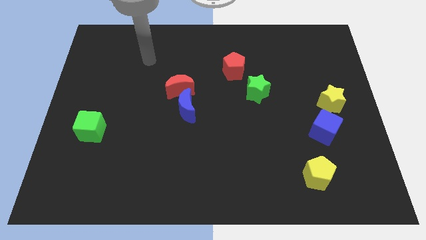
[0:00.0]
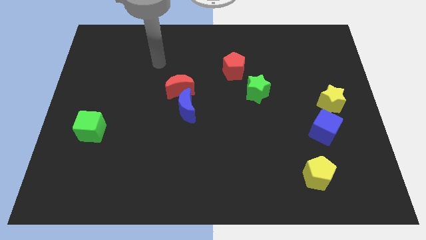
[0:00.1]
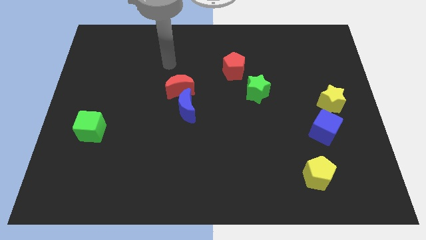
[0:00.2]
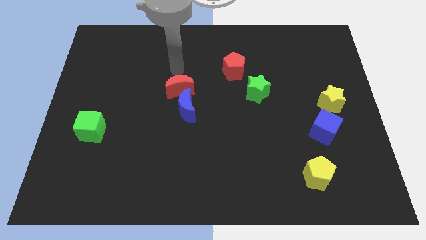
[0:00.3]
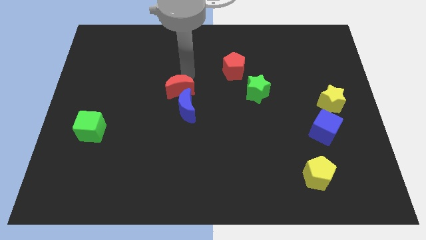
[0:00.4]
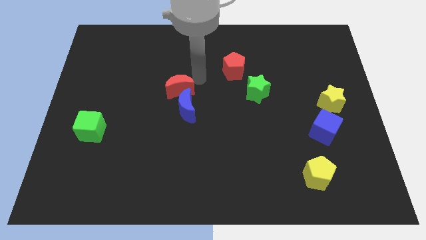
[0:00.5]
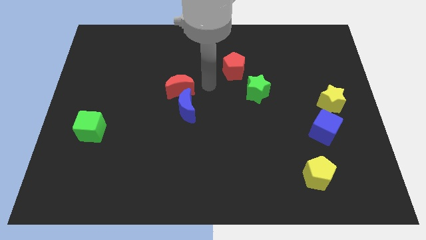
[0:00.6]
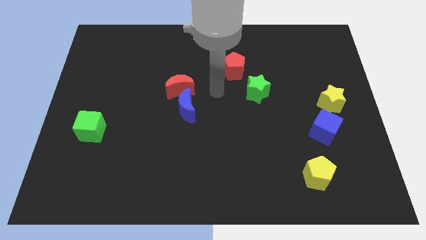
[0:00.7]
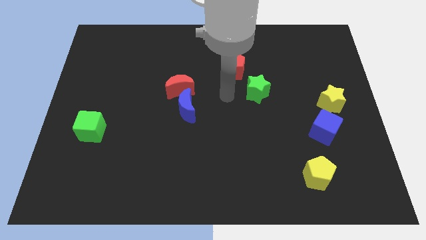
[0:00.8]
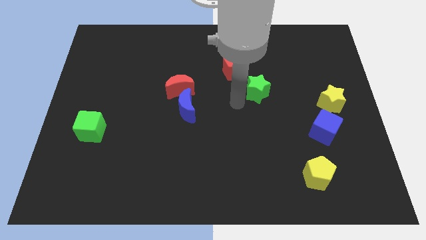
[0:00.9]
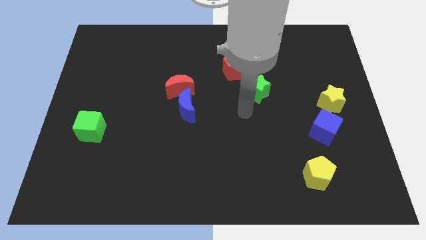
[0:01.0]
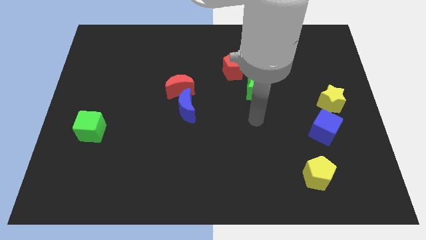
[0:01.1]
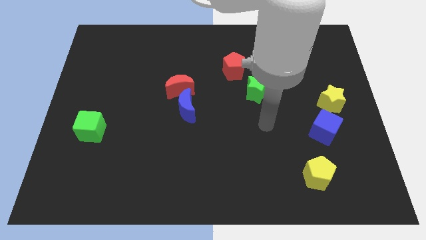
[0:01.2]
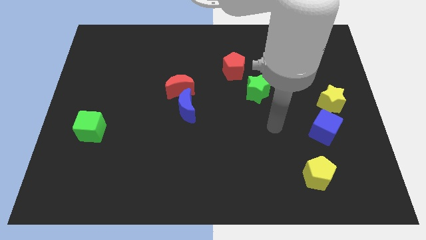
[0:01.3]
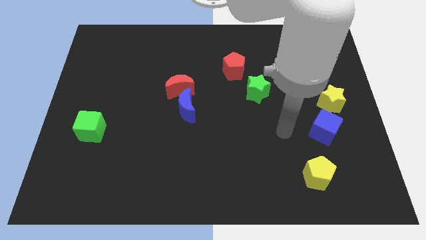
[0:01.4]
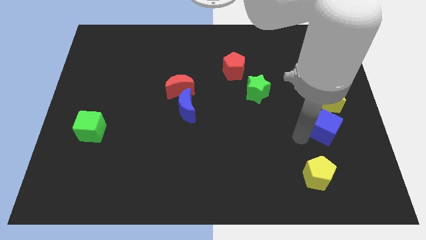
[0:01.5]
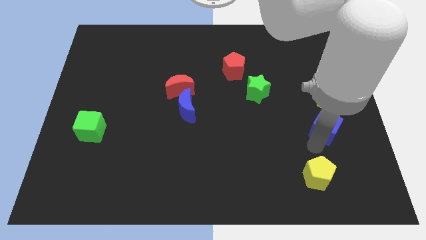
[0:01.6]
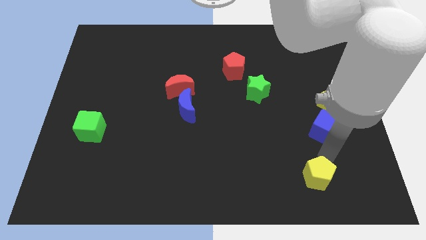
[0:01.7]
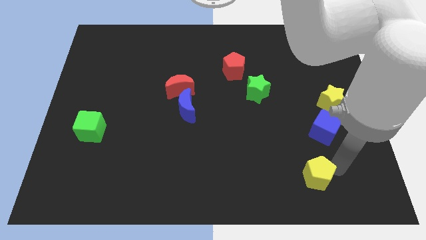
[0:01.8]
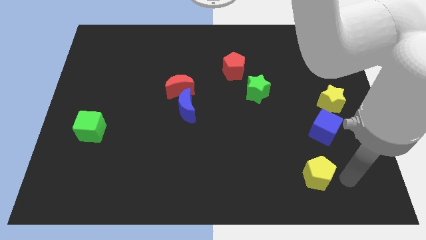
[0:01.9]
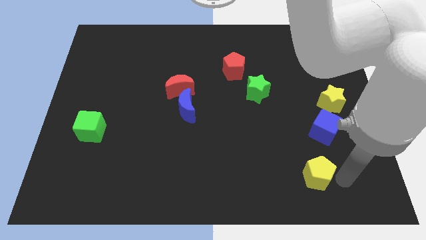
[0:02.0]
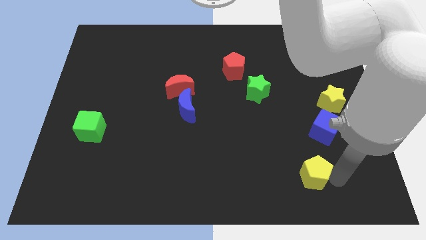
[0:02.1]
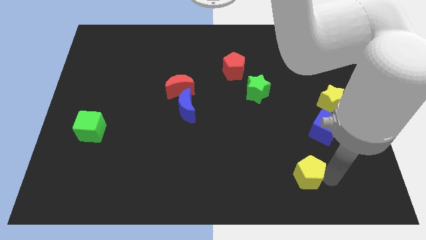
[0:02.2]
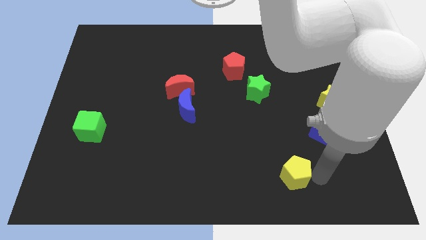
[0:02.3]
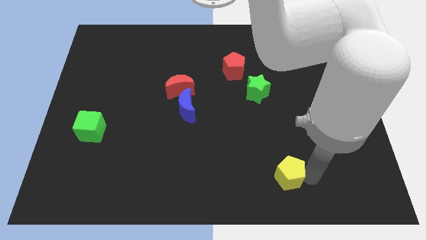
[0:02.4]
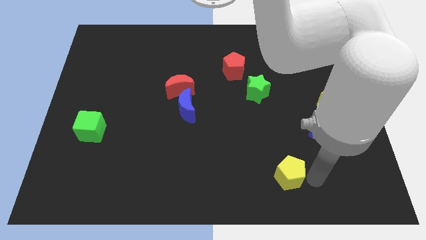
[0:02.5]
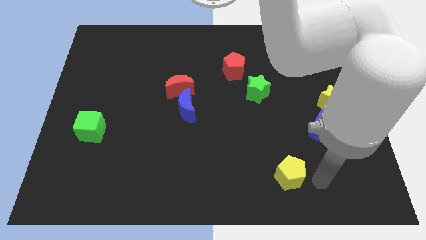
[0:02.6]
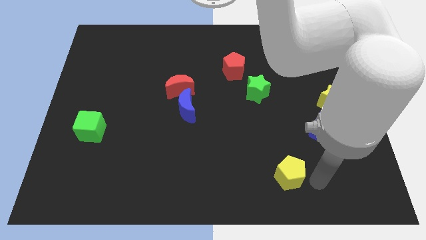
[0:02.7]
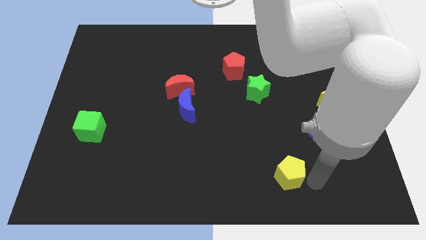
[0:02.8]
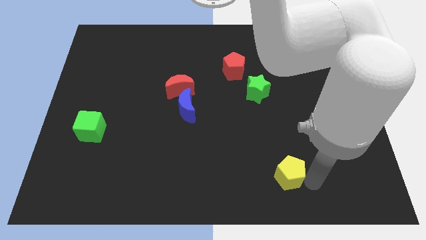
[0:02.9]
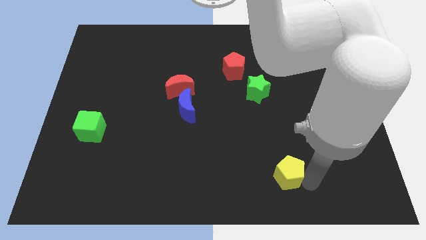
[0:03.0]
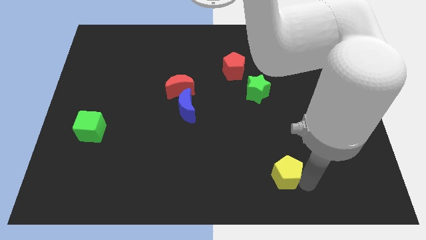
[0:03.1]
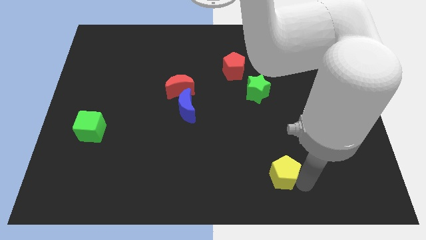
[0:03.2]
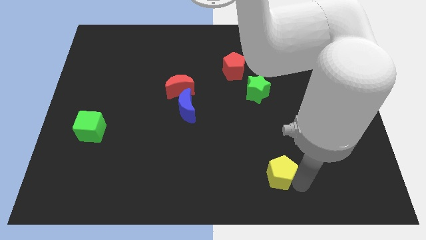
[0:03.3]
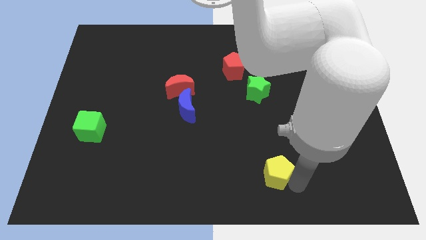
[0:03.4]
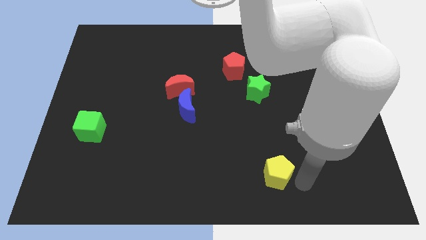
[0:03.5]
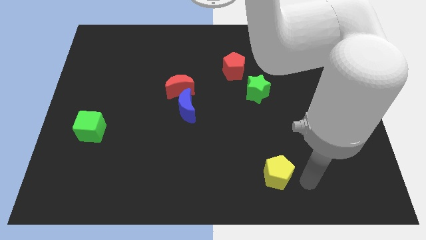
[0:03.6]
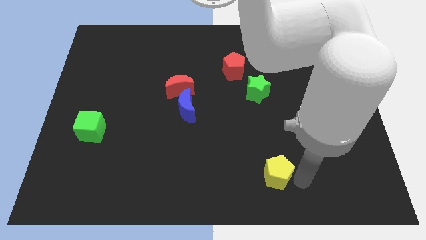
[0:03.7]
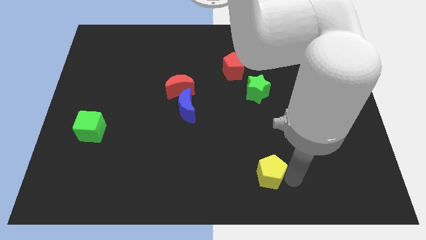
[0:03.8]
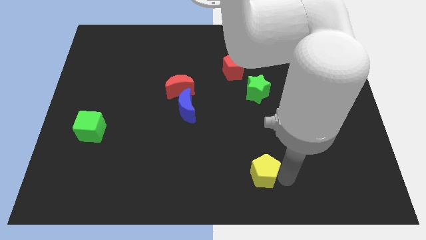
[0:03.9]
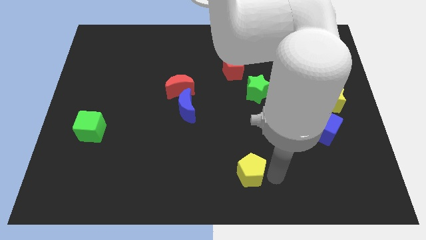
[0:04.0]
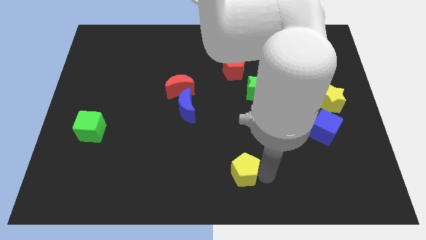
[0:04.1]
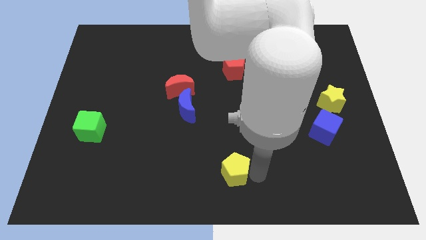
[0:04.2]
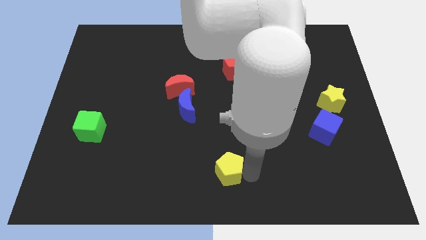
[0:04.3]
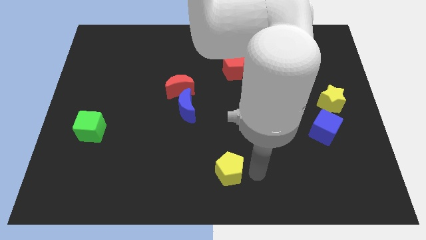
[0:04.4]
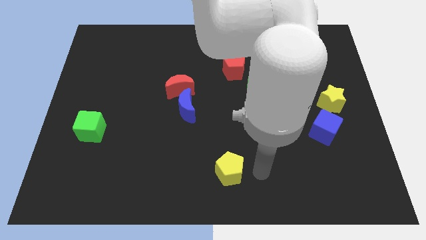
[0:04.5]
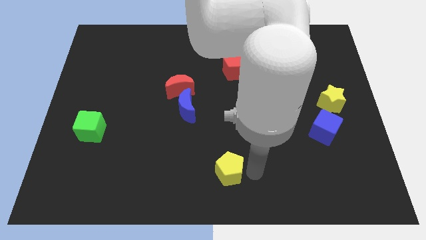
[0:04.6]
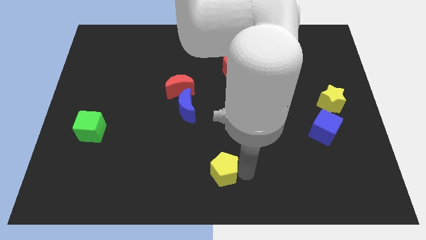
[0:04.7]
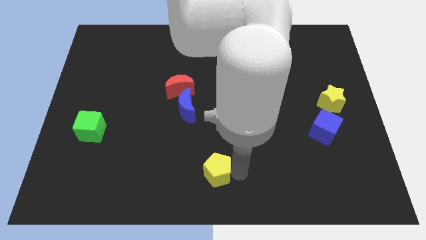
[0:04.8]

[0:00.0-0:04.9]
push the yellow pentagon left

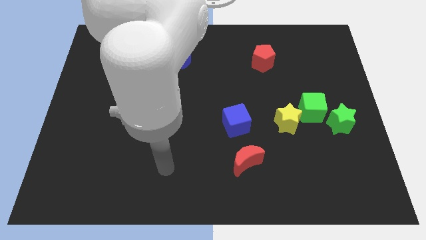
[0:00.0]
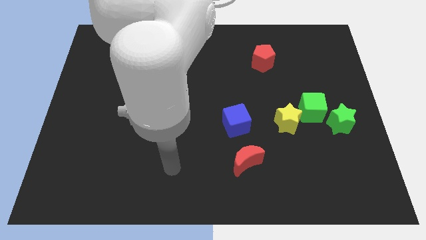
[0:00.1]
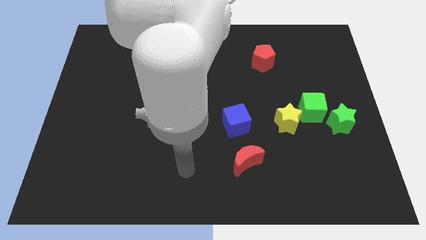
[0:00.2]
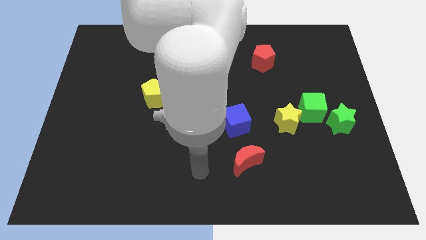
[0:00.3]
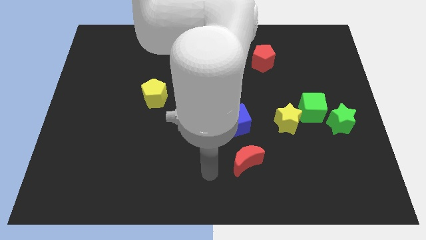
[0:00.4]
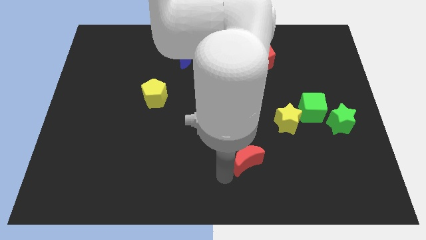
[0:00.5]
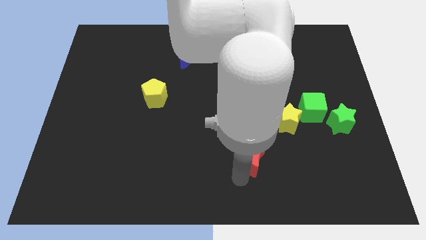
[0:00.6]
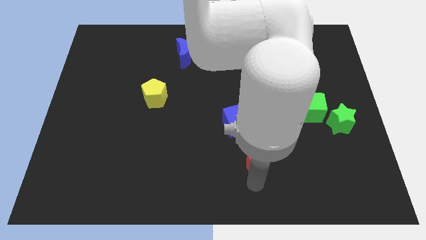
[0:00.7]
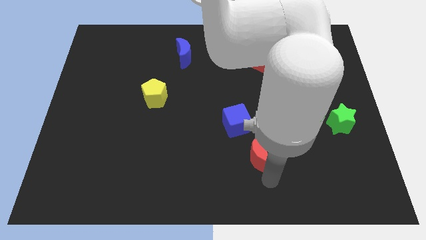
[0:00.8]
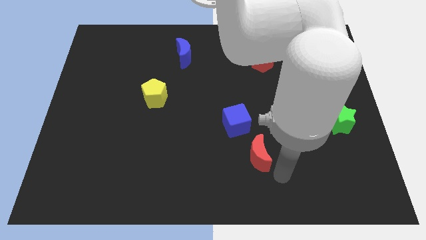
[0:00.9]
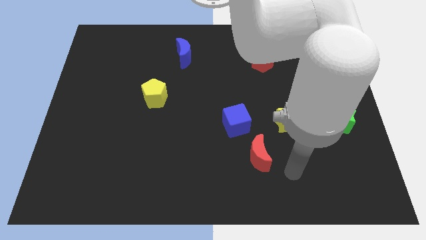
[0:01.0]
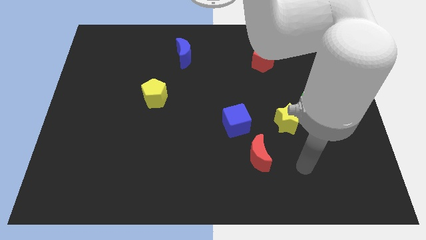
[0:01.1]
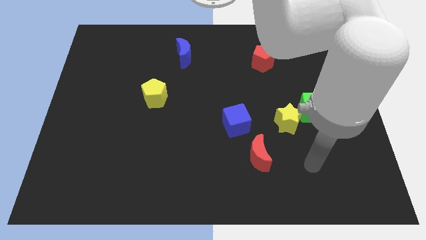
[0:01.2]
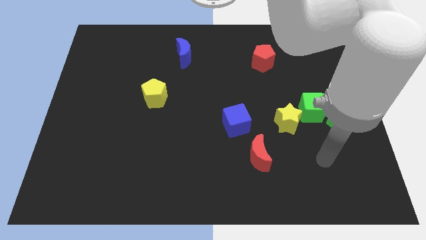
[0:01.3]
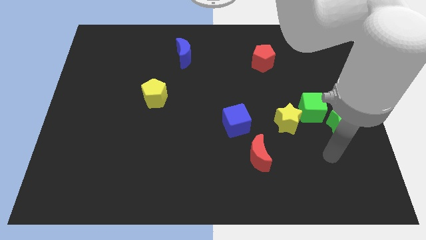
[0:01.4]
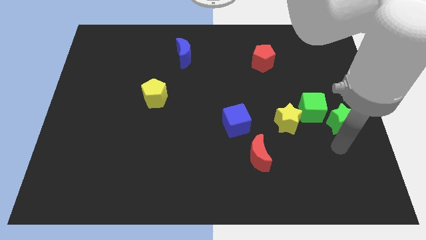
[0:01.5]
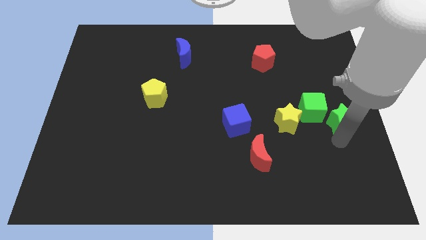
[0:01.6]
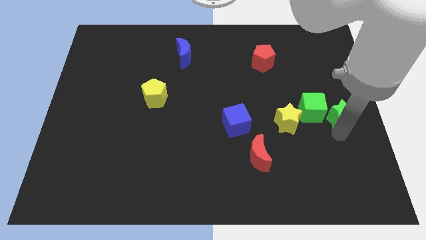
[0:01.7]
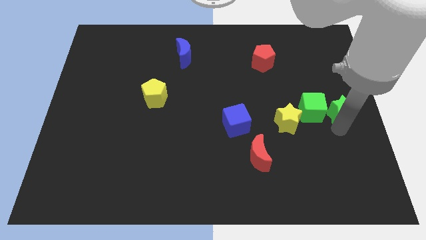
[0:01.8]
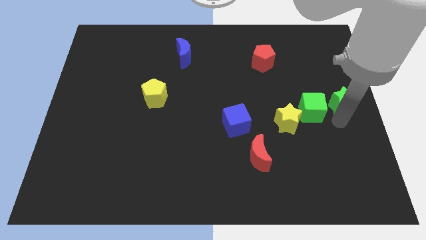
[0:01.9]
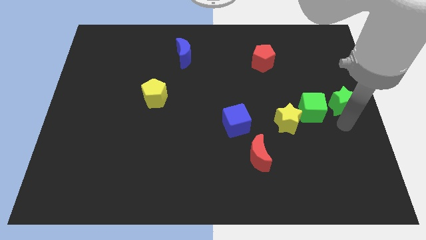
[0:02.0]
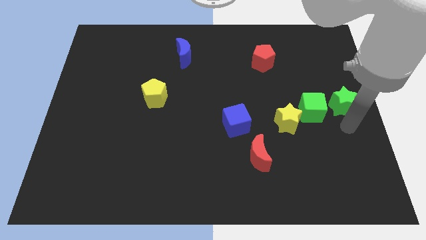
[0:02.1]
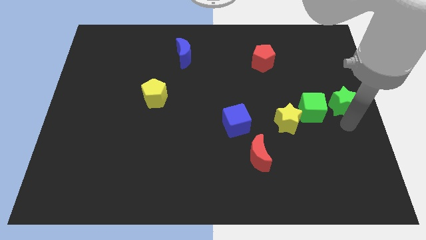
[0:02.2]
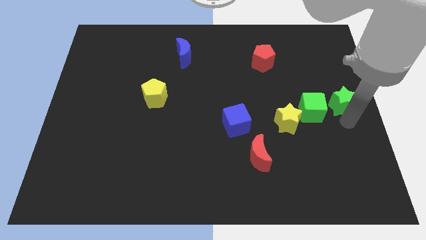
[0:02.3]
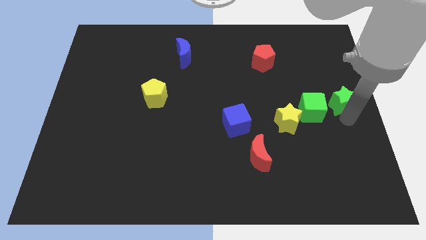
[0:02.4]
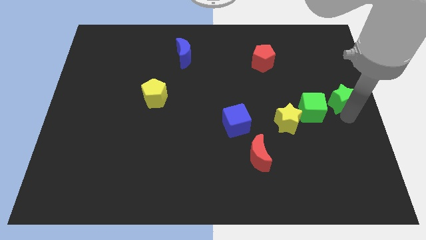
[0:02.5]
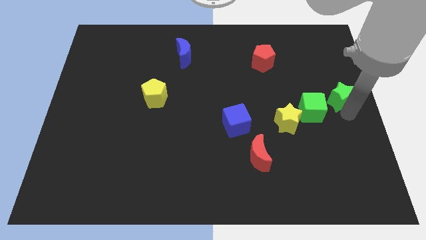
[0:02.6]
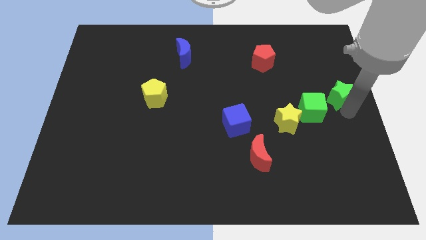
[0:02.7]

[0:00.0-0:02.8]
slightly move the green star up

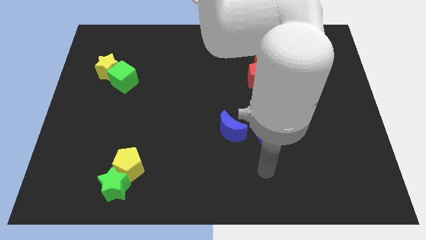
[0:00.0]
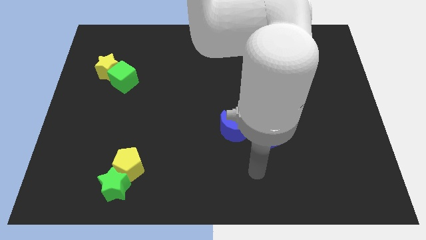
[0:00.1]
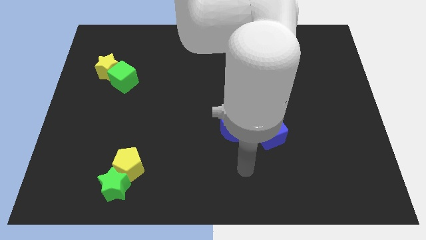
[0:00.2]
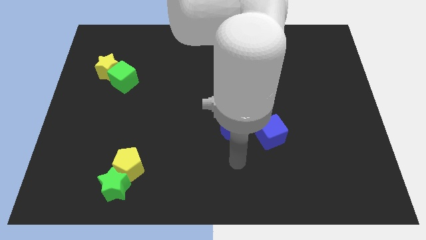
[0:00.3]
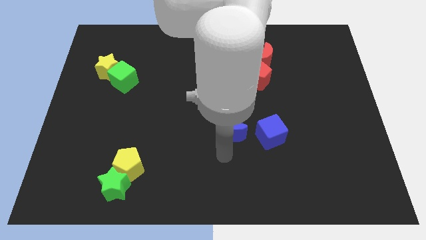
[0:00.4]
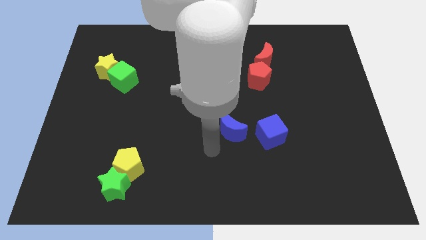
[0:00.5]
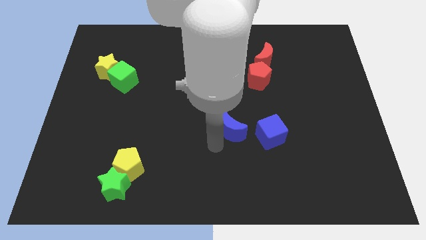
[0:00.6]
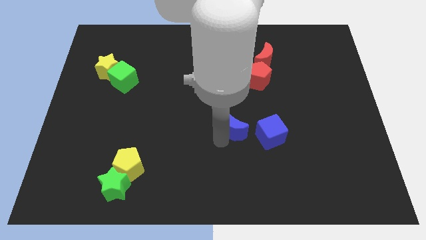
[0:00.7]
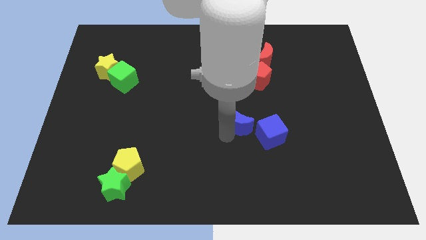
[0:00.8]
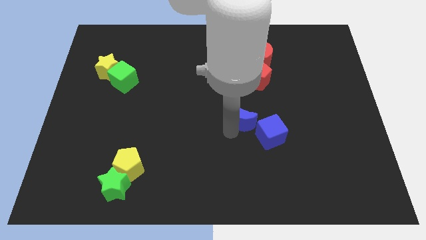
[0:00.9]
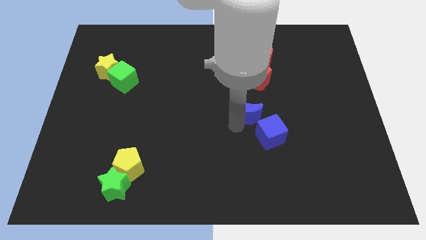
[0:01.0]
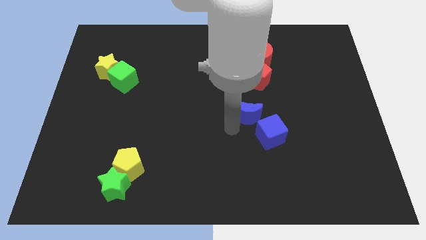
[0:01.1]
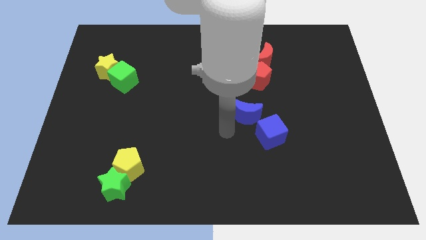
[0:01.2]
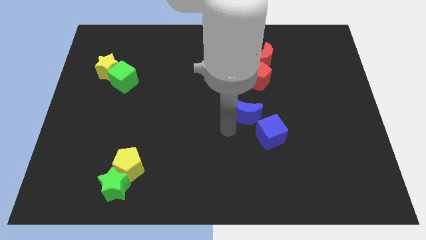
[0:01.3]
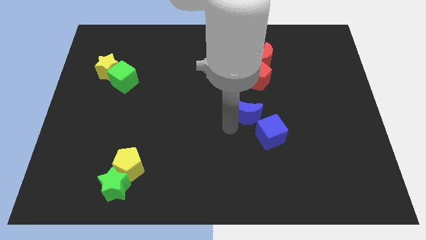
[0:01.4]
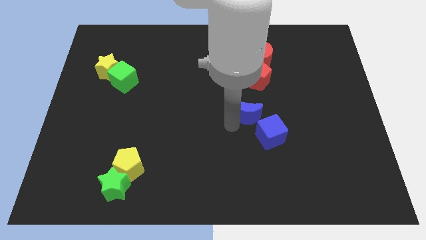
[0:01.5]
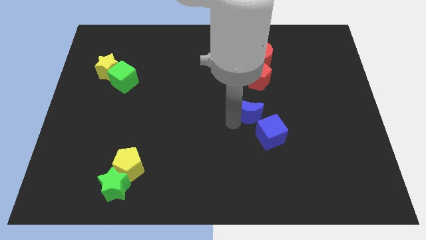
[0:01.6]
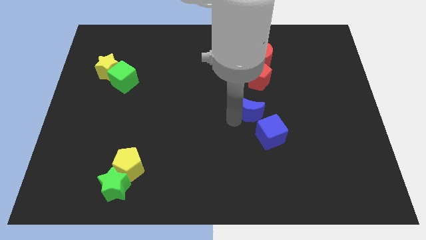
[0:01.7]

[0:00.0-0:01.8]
slightly slide the blue moon diagonally up and to the right
